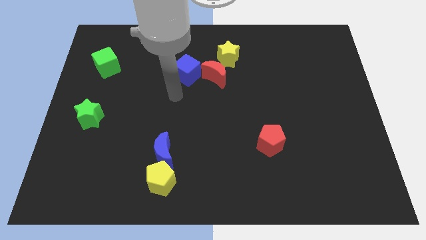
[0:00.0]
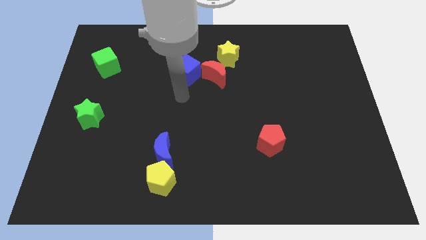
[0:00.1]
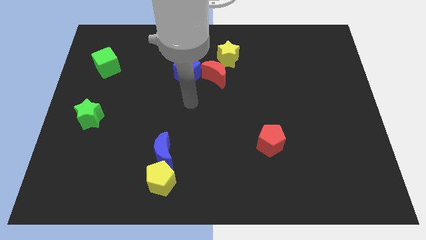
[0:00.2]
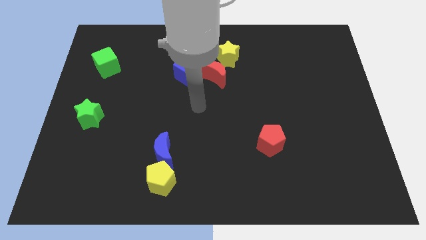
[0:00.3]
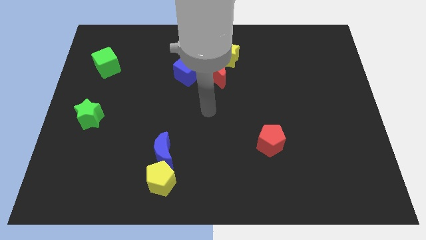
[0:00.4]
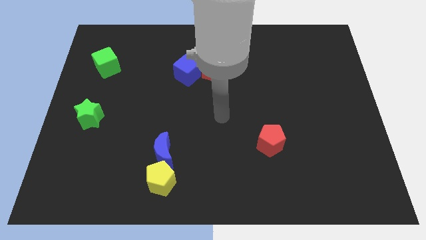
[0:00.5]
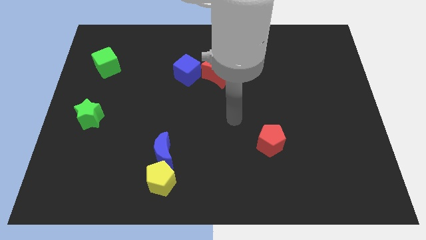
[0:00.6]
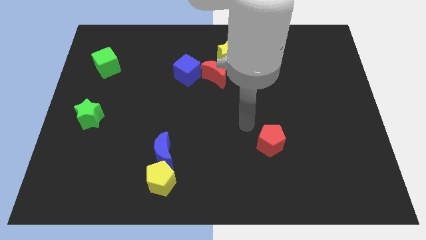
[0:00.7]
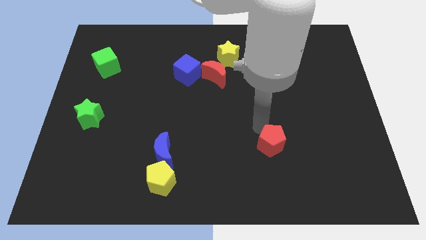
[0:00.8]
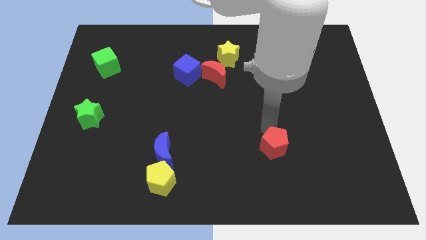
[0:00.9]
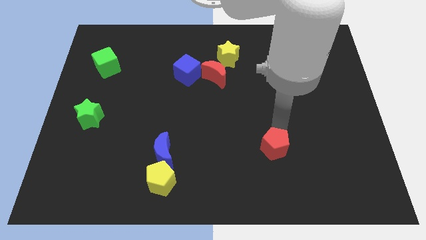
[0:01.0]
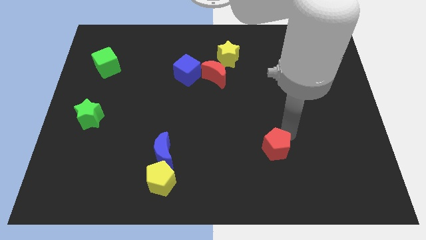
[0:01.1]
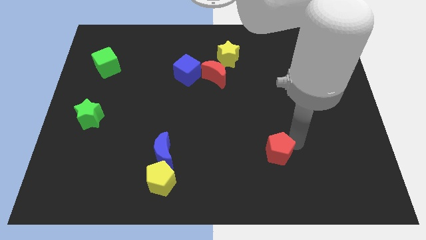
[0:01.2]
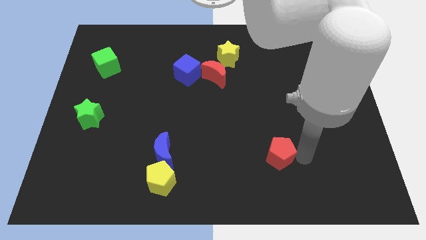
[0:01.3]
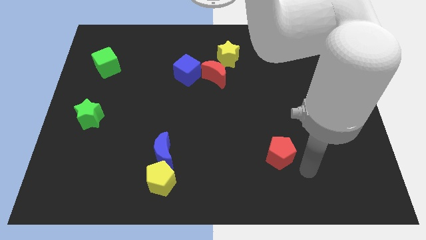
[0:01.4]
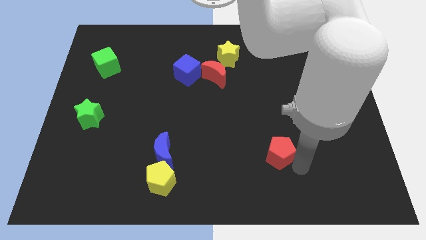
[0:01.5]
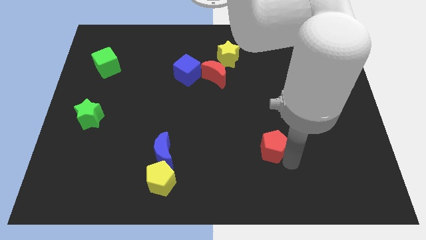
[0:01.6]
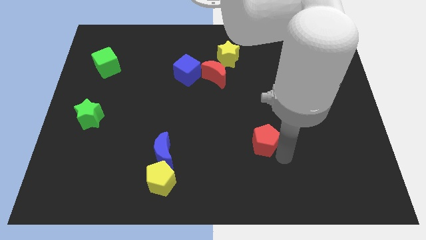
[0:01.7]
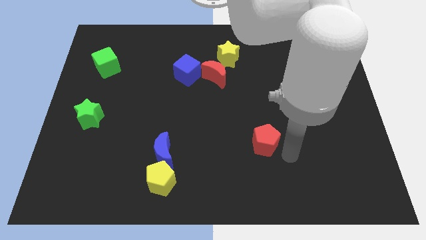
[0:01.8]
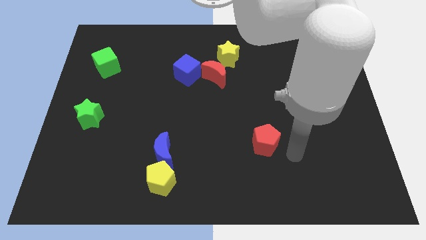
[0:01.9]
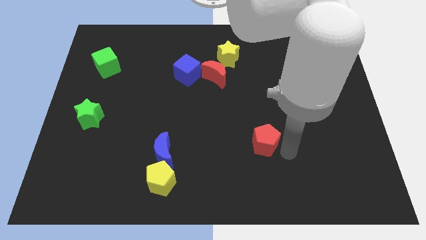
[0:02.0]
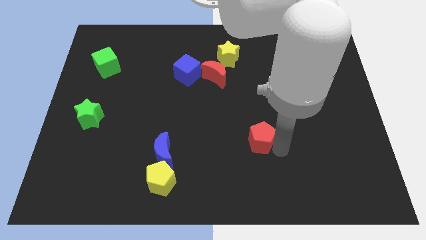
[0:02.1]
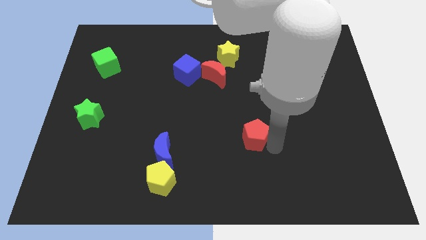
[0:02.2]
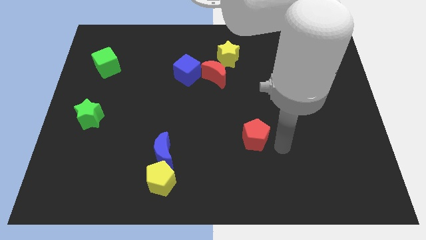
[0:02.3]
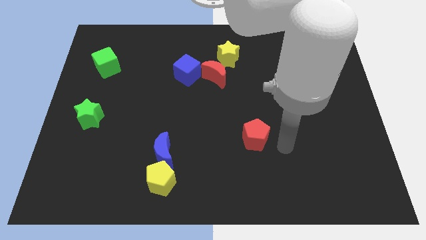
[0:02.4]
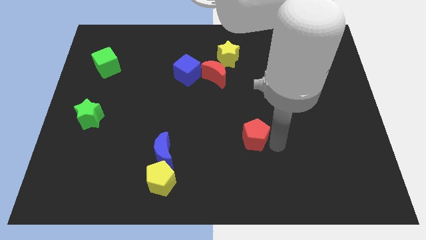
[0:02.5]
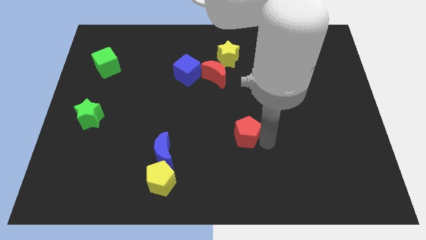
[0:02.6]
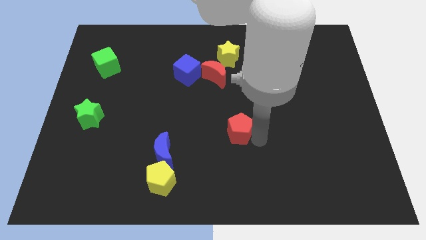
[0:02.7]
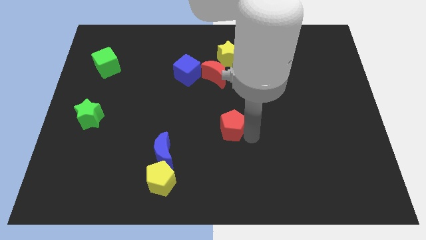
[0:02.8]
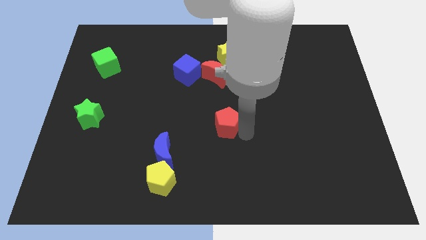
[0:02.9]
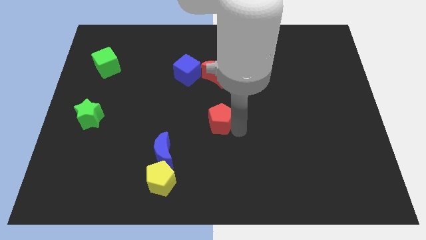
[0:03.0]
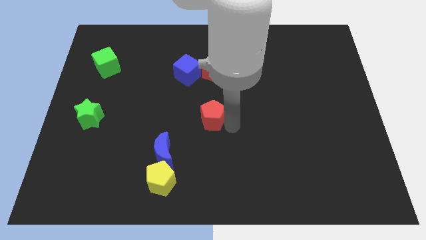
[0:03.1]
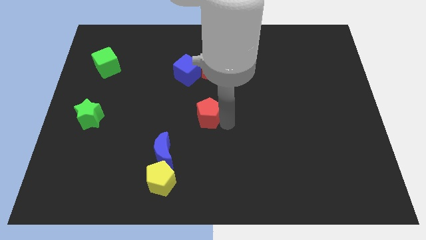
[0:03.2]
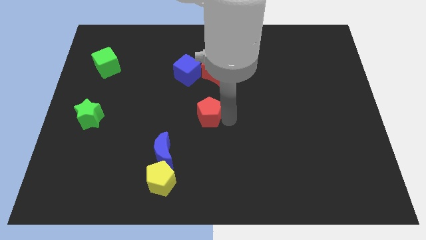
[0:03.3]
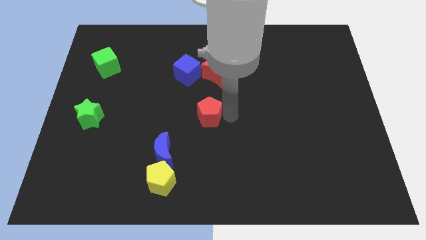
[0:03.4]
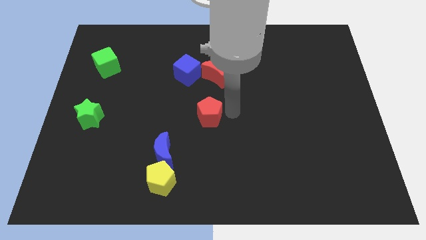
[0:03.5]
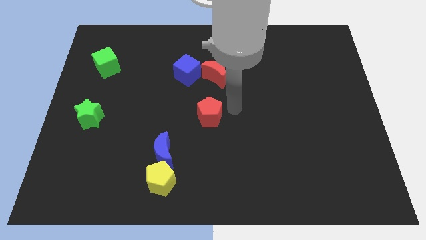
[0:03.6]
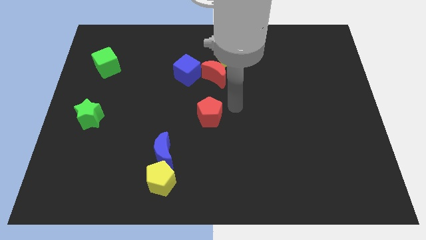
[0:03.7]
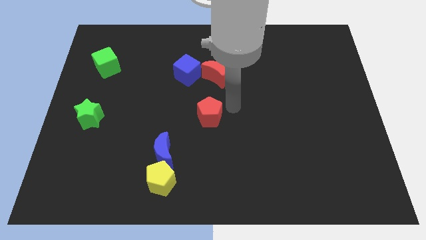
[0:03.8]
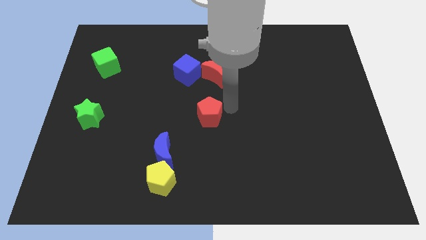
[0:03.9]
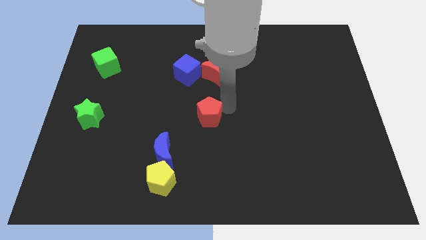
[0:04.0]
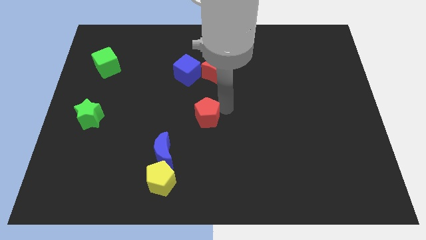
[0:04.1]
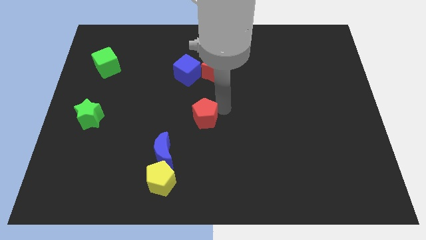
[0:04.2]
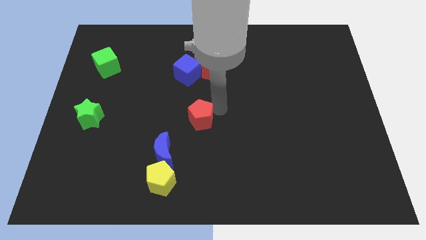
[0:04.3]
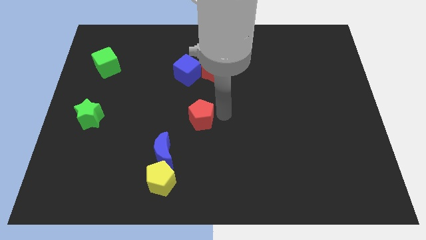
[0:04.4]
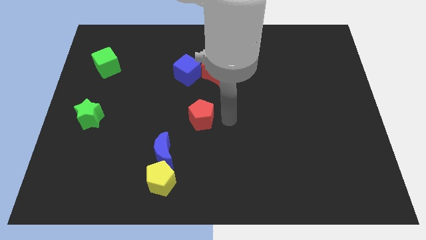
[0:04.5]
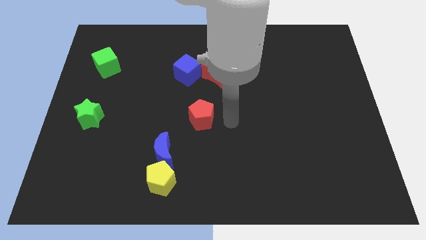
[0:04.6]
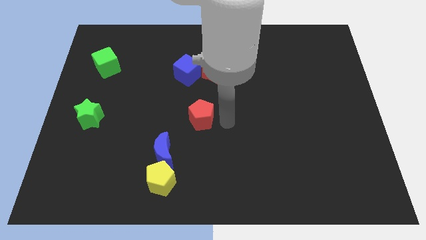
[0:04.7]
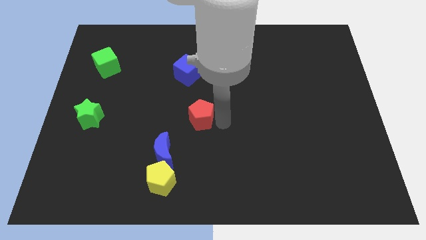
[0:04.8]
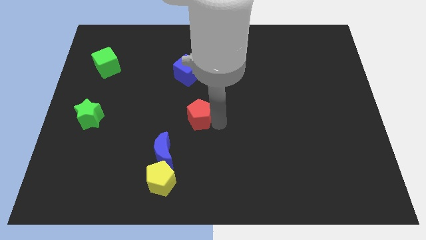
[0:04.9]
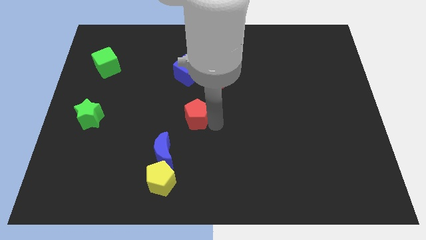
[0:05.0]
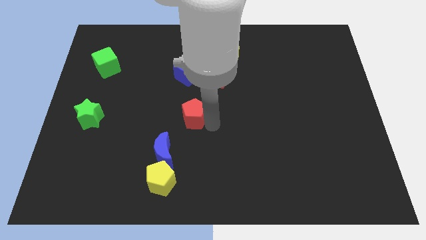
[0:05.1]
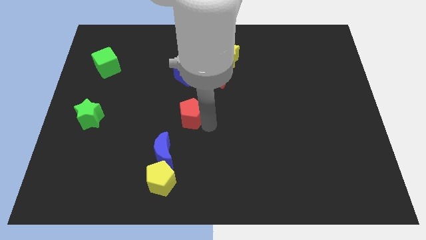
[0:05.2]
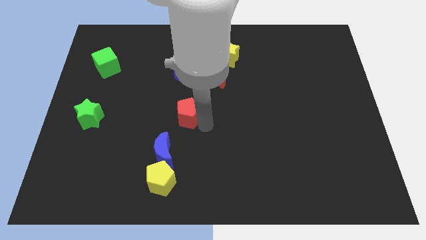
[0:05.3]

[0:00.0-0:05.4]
move the red pentagon to the top side of the blue moon

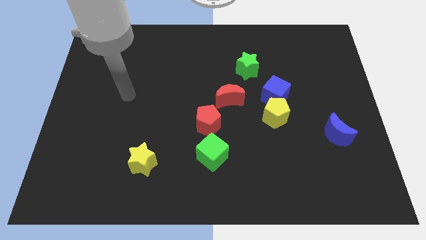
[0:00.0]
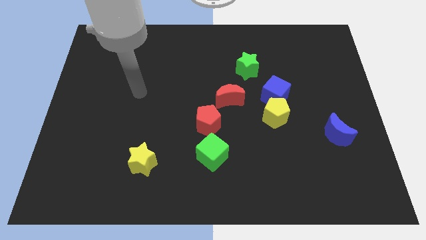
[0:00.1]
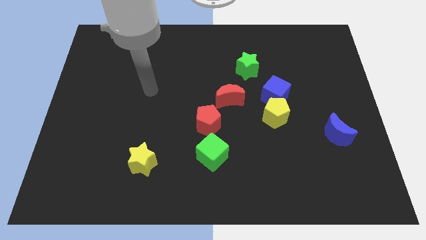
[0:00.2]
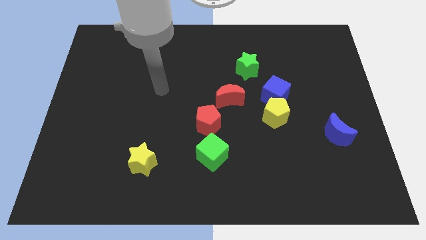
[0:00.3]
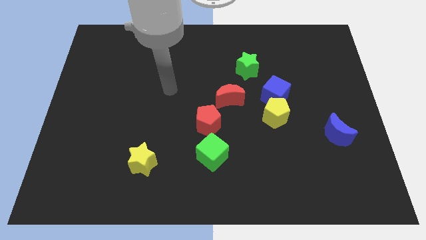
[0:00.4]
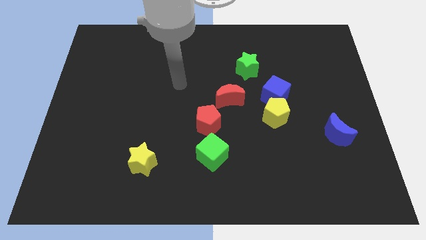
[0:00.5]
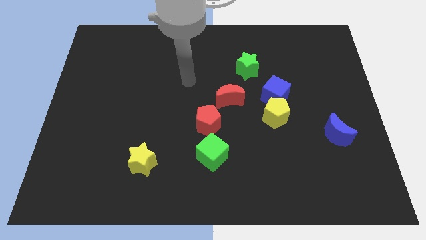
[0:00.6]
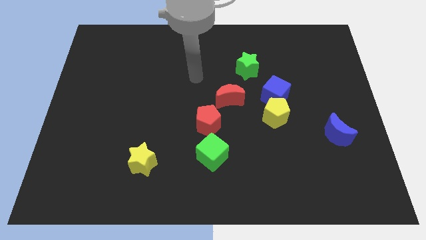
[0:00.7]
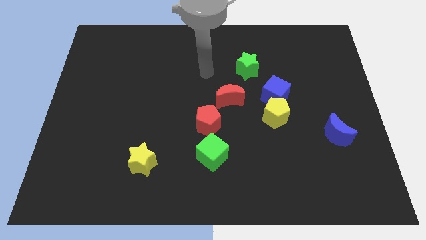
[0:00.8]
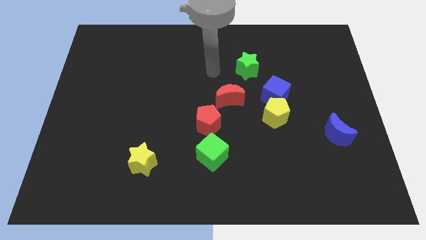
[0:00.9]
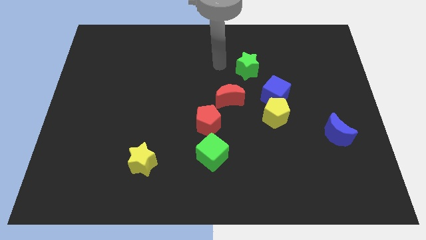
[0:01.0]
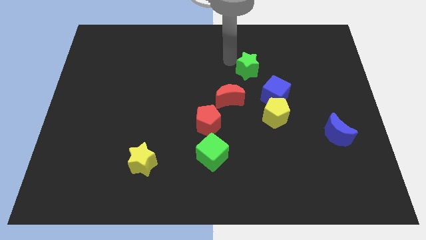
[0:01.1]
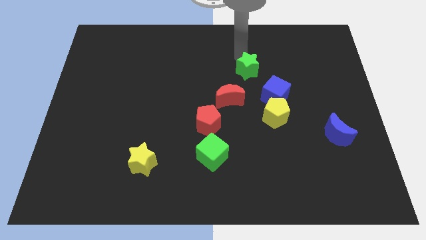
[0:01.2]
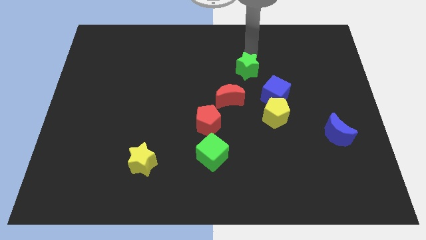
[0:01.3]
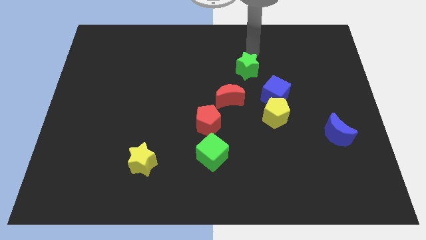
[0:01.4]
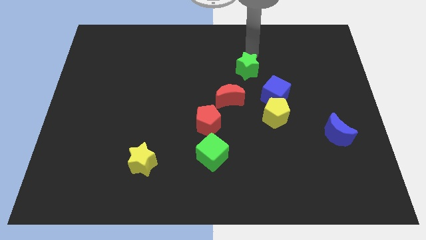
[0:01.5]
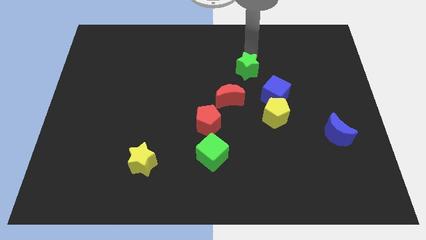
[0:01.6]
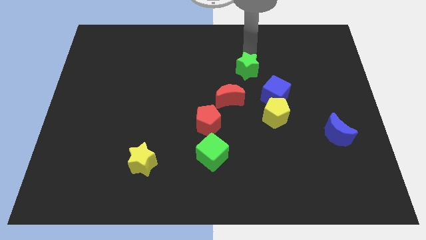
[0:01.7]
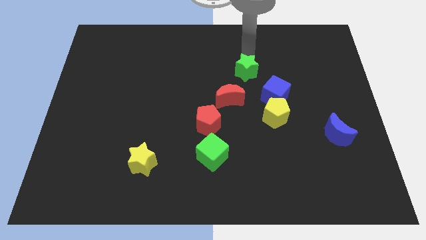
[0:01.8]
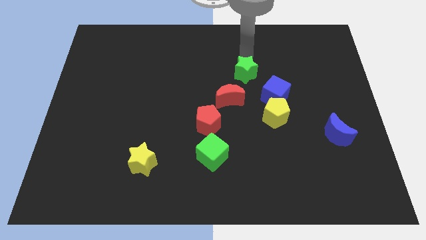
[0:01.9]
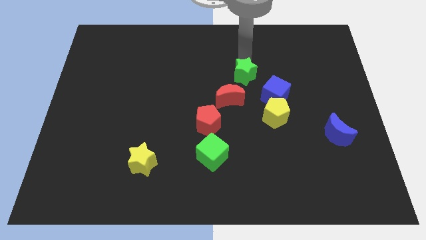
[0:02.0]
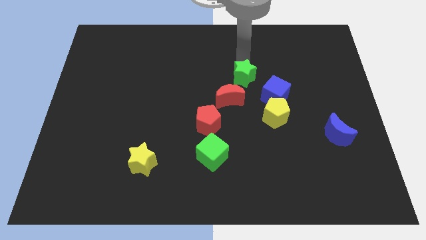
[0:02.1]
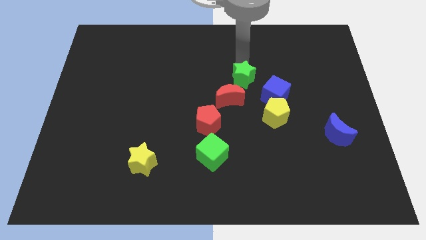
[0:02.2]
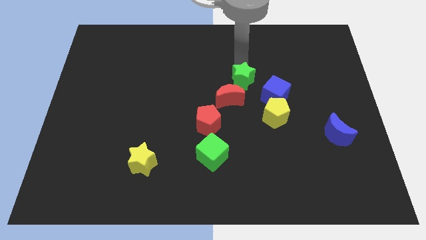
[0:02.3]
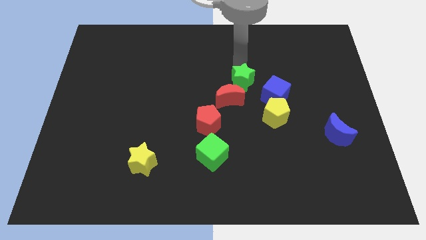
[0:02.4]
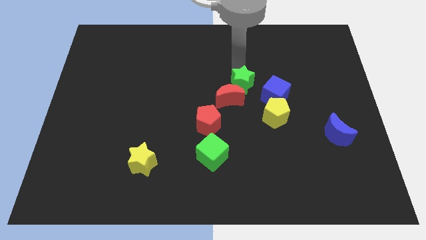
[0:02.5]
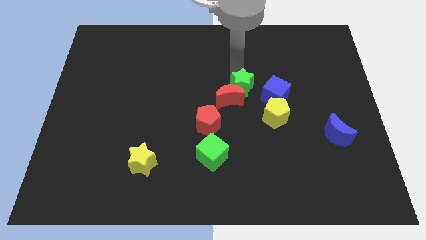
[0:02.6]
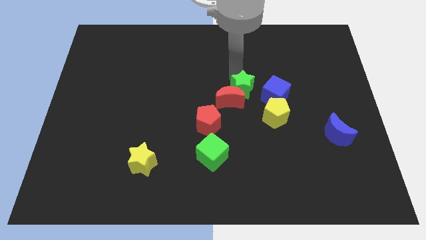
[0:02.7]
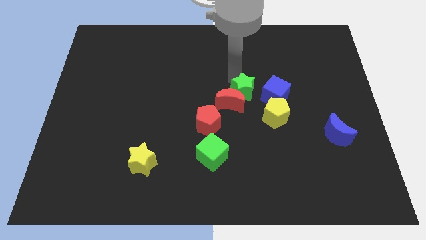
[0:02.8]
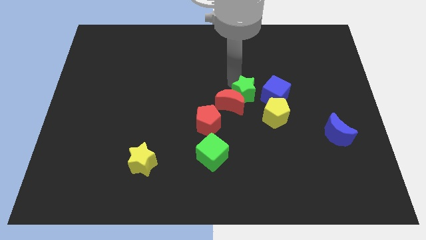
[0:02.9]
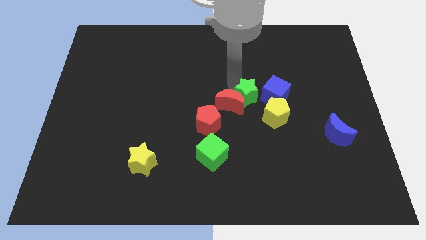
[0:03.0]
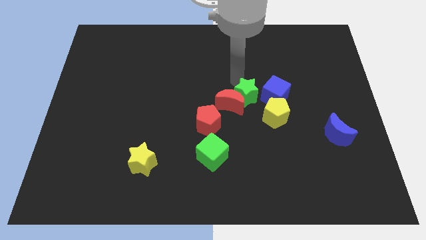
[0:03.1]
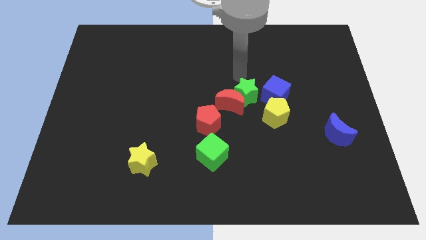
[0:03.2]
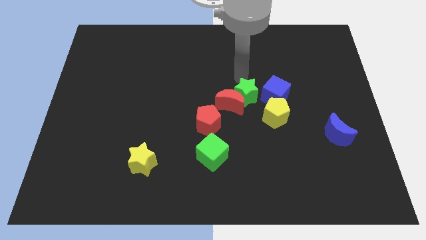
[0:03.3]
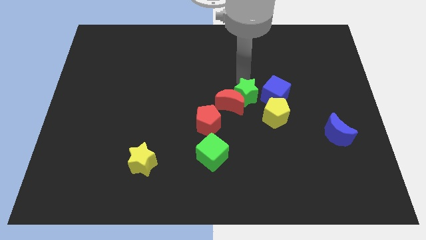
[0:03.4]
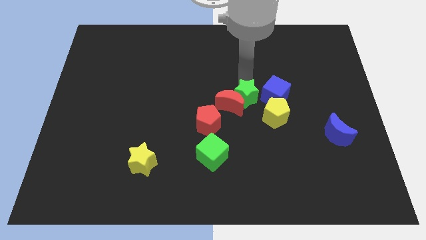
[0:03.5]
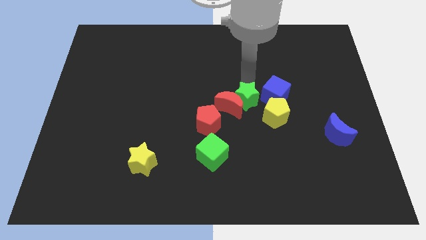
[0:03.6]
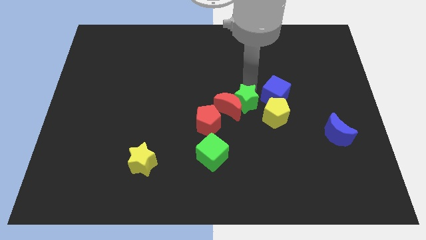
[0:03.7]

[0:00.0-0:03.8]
put the green star to the bottom right of the red moon
